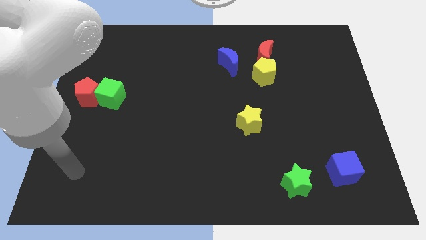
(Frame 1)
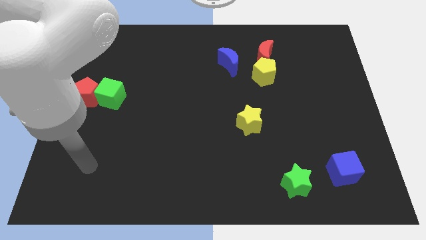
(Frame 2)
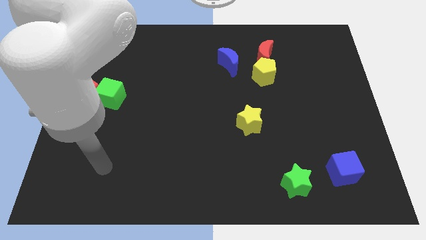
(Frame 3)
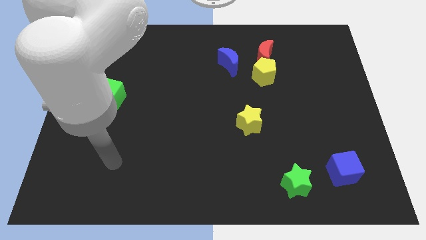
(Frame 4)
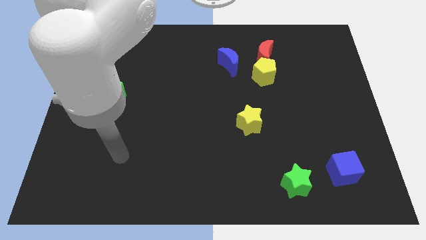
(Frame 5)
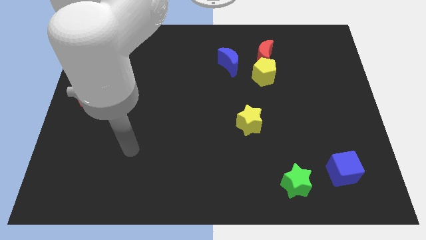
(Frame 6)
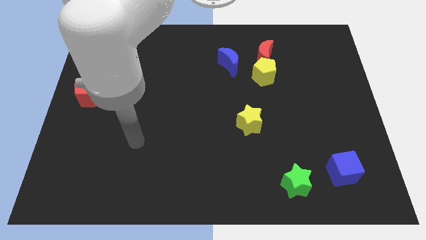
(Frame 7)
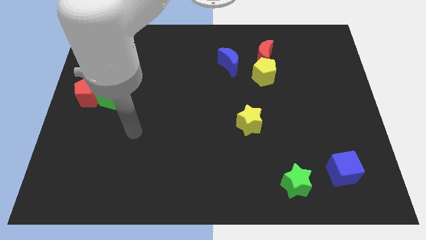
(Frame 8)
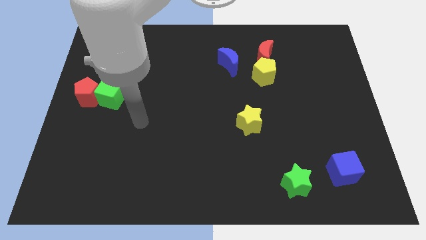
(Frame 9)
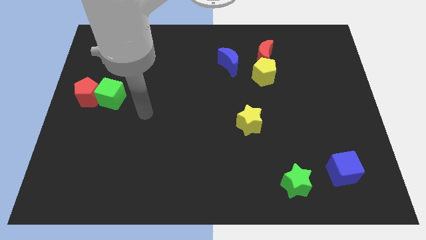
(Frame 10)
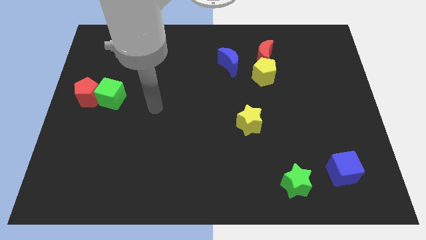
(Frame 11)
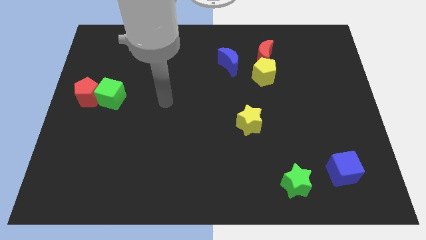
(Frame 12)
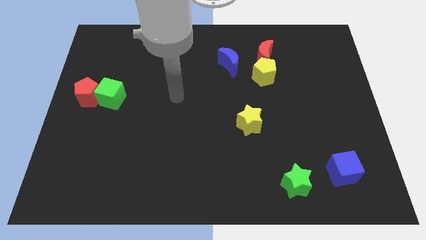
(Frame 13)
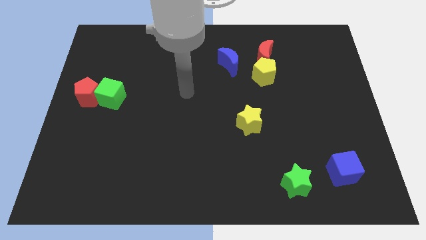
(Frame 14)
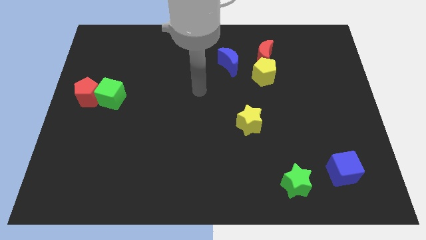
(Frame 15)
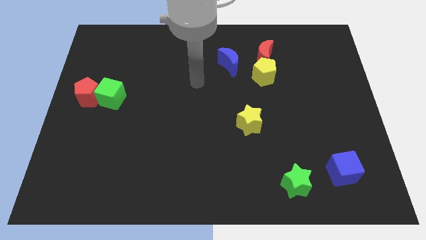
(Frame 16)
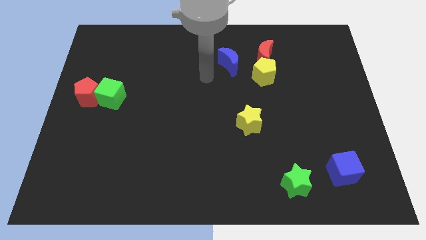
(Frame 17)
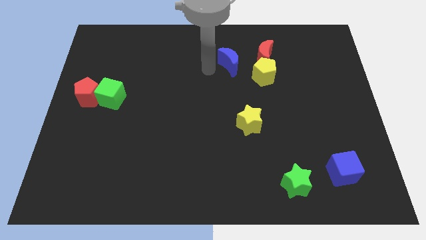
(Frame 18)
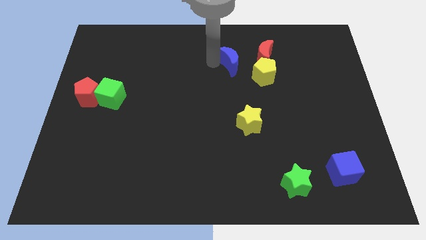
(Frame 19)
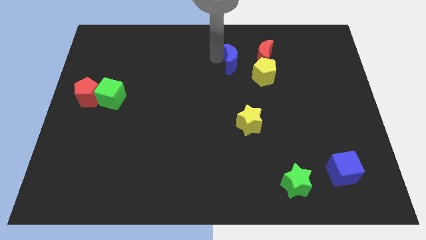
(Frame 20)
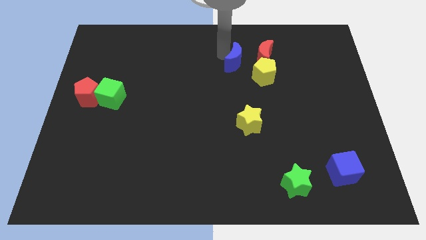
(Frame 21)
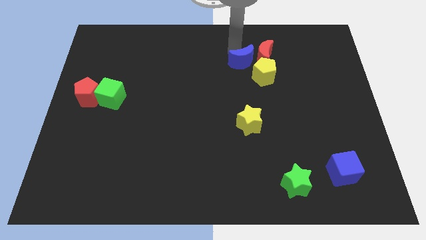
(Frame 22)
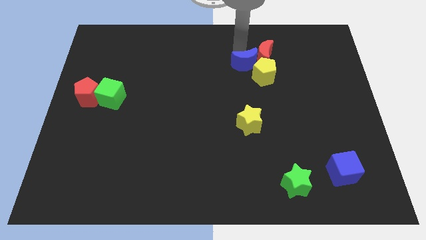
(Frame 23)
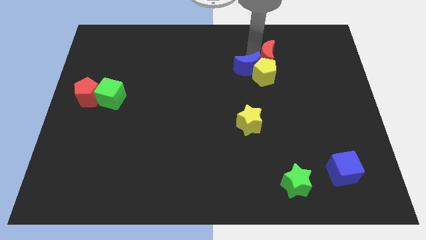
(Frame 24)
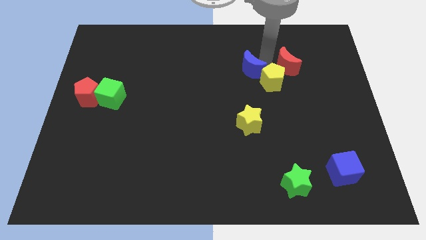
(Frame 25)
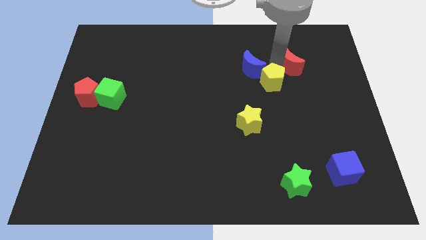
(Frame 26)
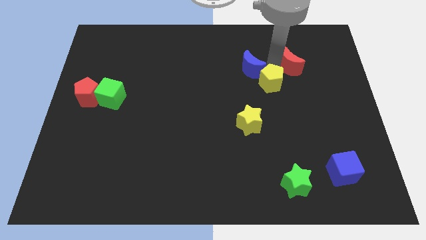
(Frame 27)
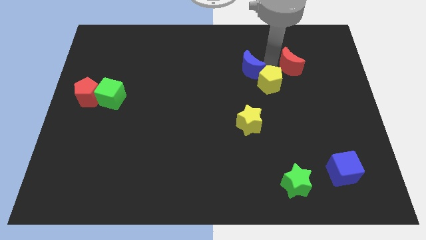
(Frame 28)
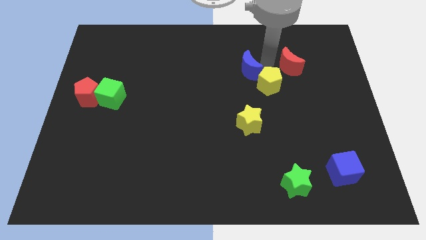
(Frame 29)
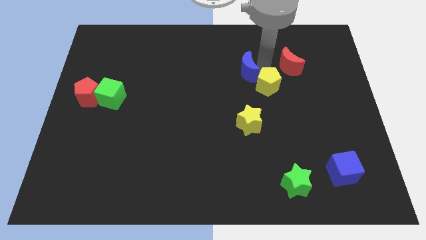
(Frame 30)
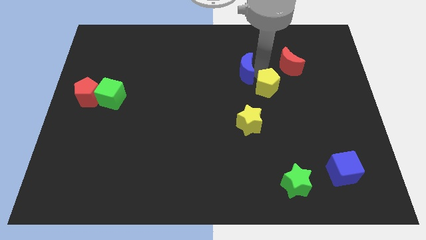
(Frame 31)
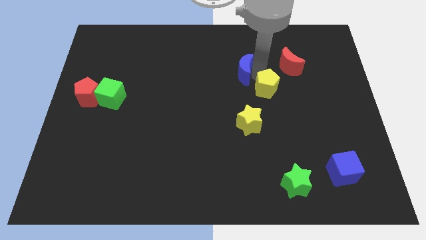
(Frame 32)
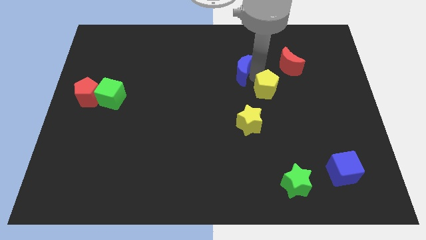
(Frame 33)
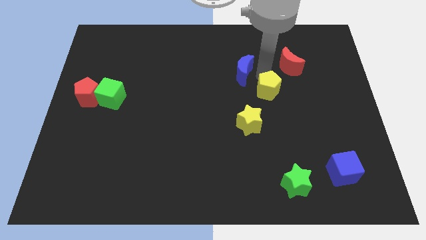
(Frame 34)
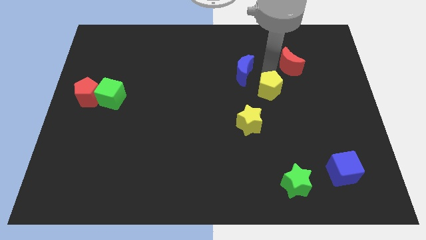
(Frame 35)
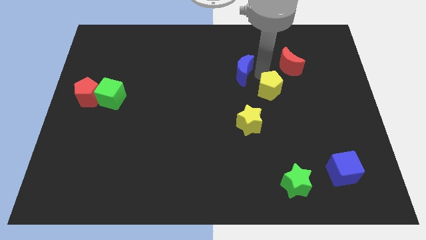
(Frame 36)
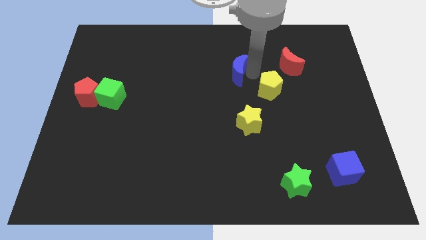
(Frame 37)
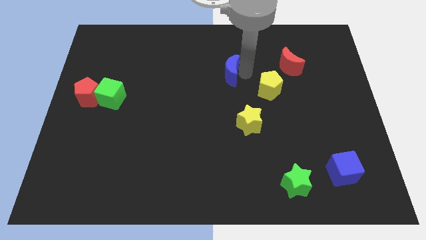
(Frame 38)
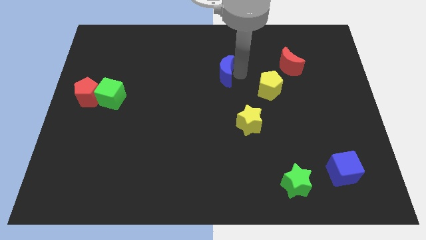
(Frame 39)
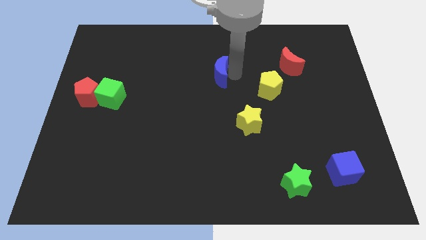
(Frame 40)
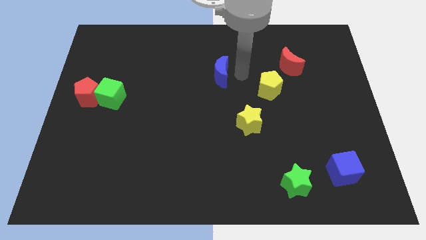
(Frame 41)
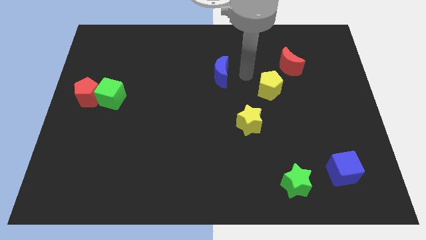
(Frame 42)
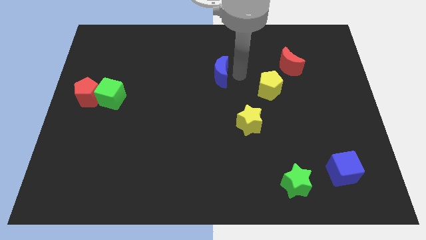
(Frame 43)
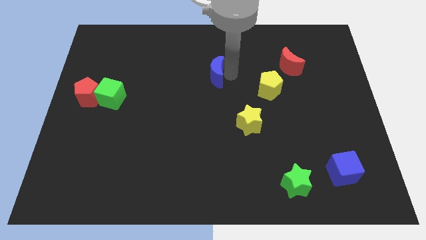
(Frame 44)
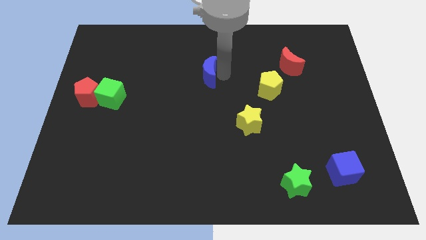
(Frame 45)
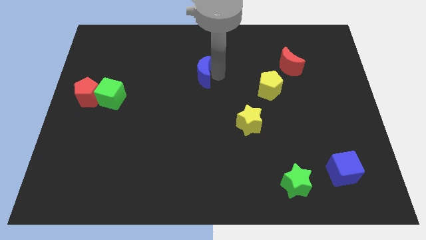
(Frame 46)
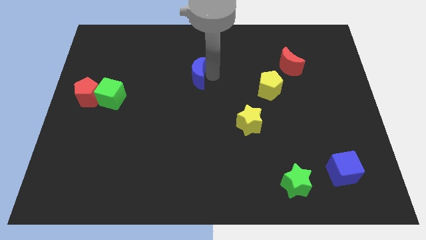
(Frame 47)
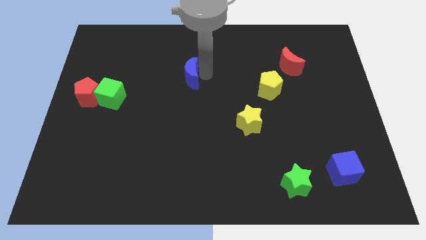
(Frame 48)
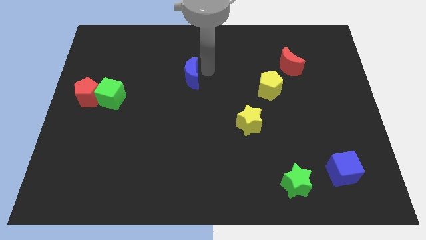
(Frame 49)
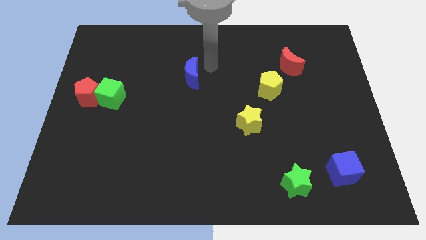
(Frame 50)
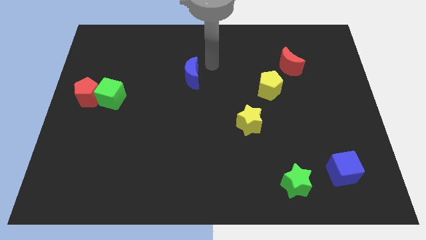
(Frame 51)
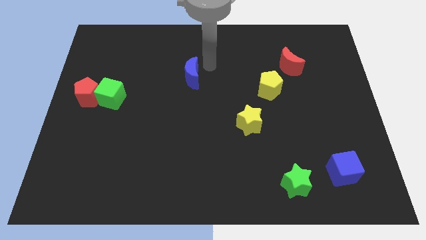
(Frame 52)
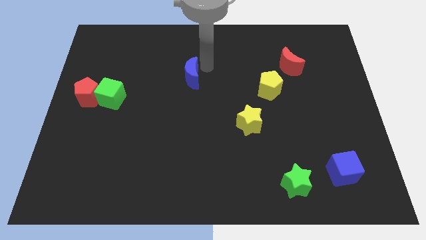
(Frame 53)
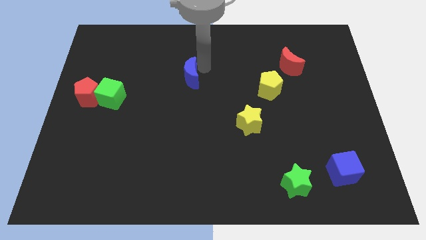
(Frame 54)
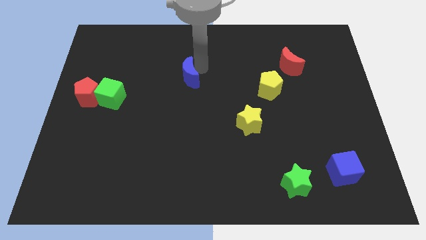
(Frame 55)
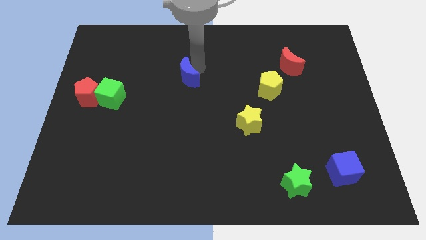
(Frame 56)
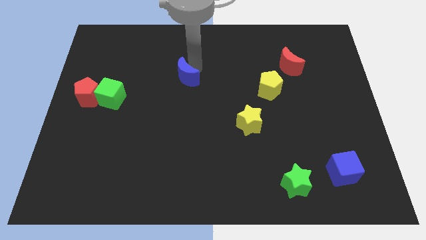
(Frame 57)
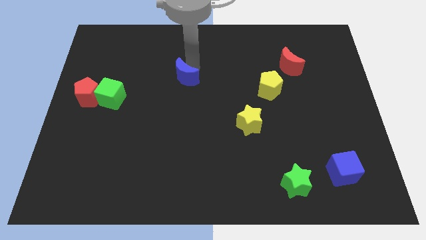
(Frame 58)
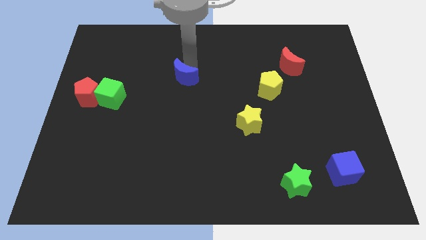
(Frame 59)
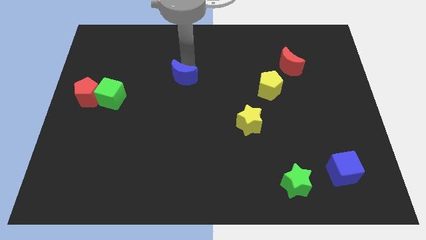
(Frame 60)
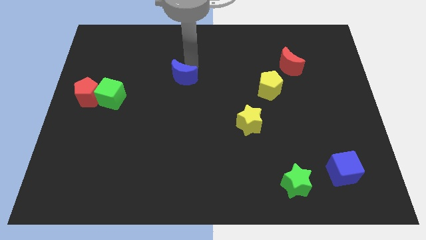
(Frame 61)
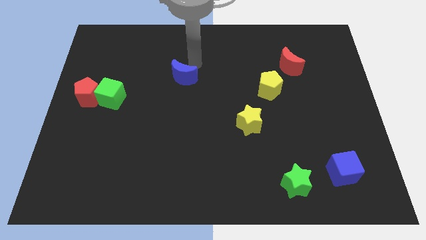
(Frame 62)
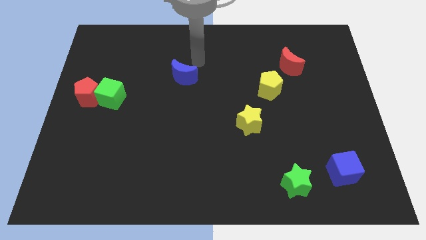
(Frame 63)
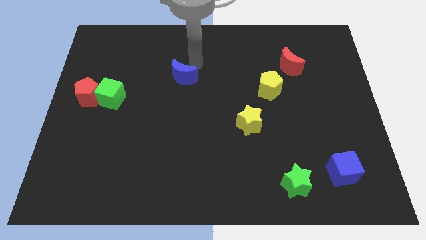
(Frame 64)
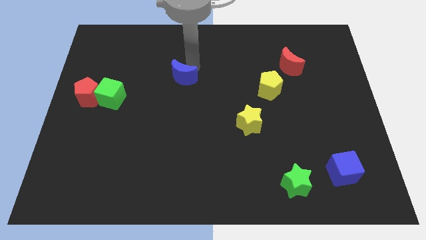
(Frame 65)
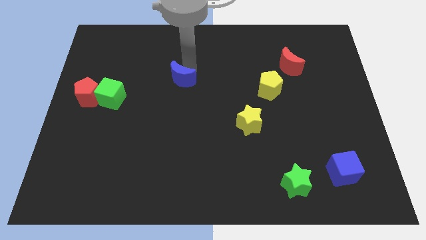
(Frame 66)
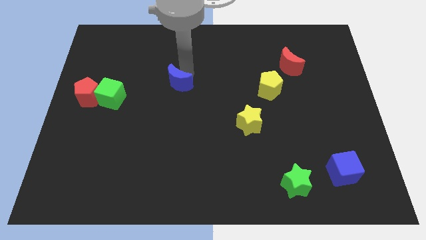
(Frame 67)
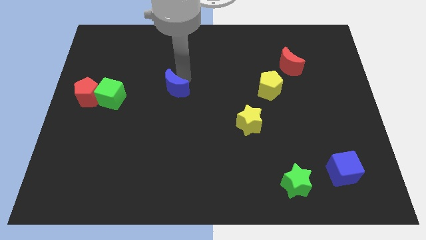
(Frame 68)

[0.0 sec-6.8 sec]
push the blue moon to the right of the green cube

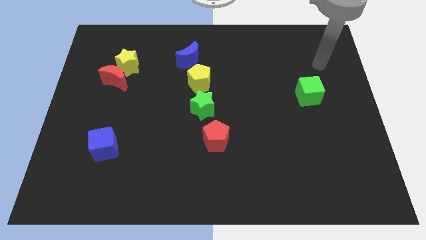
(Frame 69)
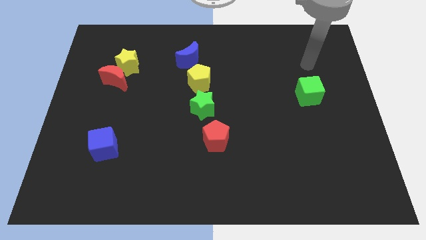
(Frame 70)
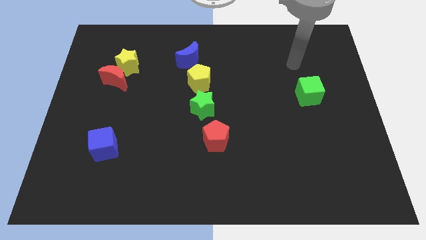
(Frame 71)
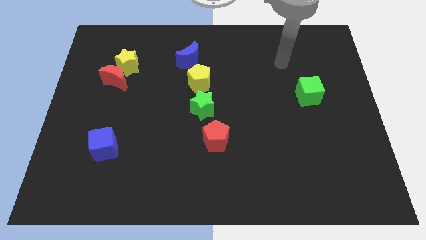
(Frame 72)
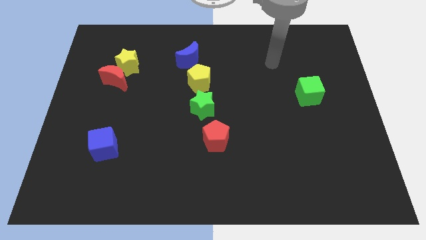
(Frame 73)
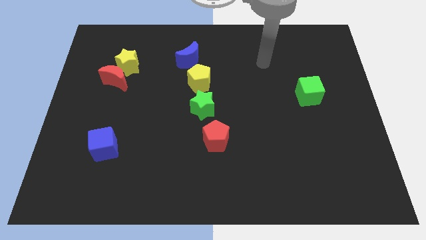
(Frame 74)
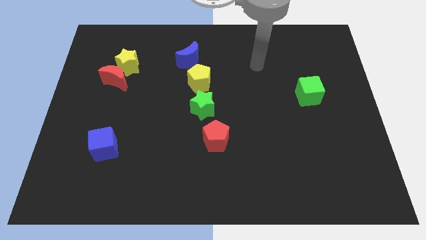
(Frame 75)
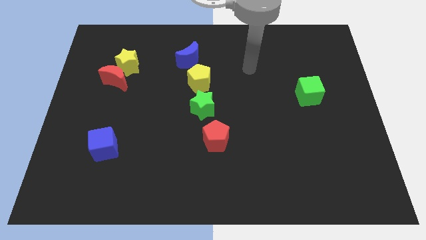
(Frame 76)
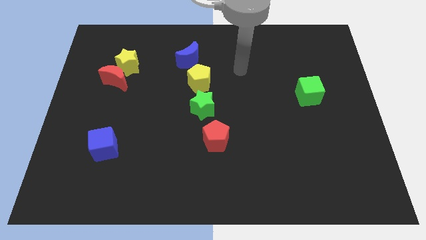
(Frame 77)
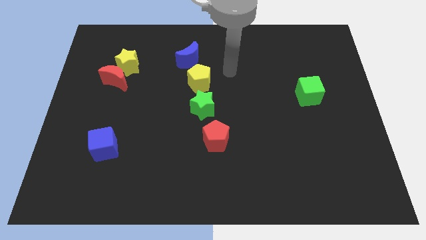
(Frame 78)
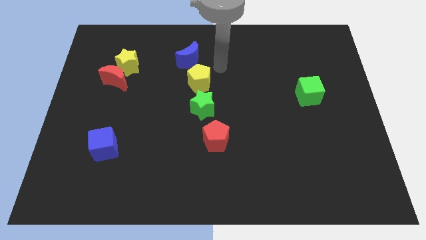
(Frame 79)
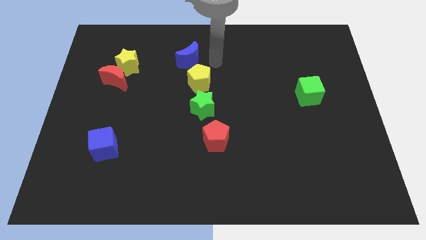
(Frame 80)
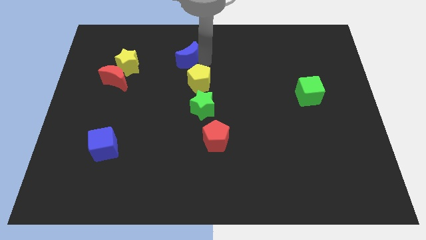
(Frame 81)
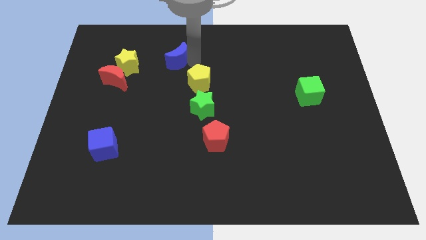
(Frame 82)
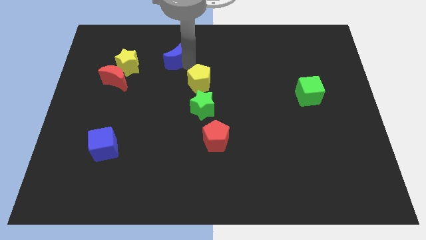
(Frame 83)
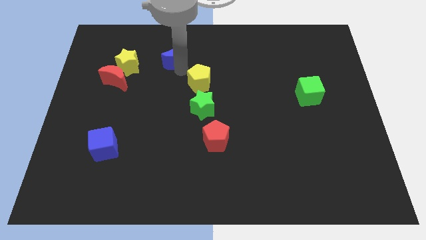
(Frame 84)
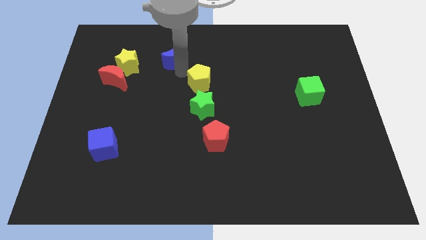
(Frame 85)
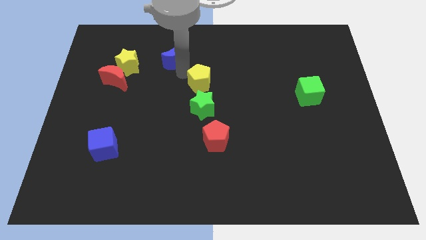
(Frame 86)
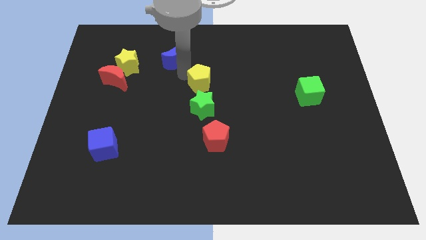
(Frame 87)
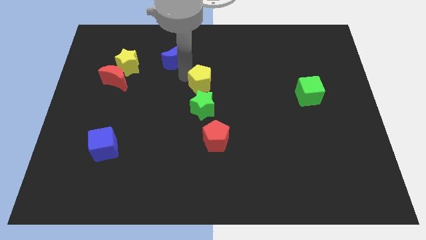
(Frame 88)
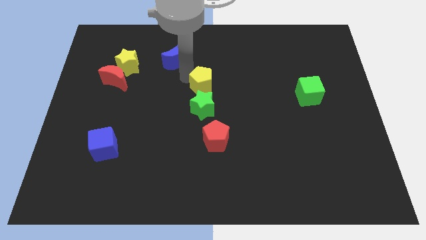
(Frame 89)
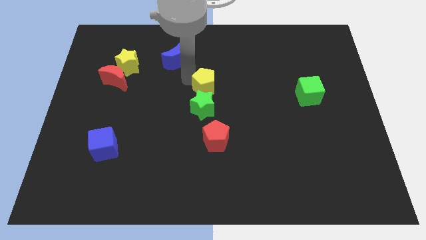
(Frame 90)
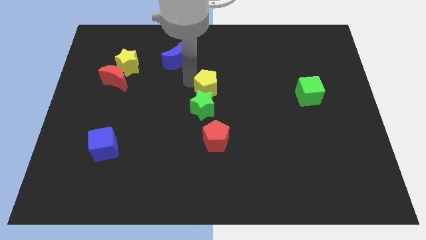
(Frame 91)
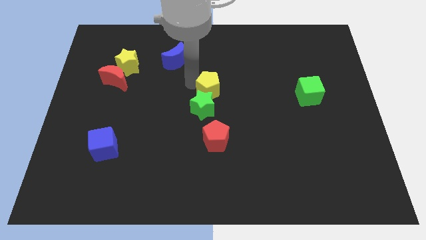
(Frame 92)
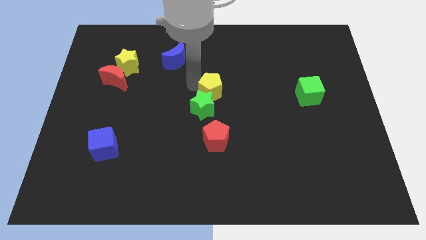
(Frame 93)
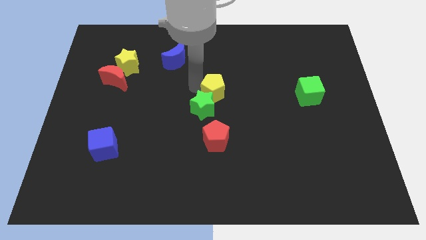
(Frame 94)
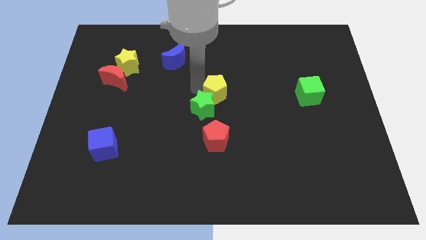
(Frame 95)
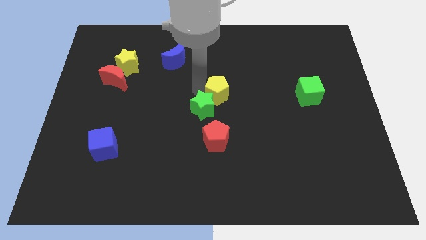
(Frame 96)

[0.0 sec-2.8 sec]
put the yellow pentagon to the right side of the green star
